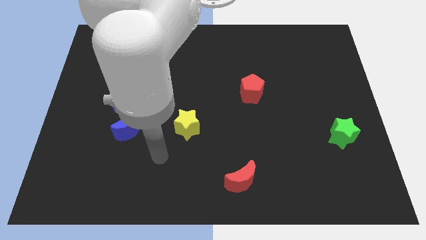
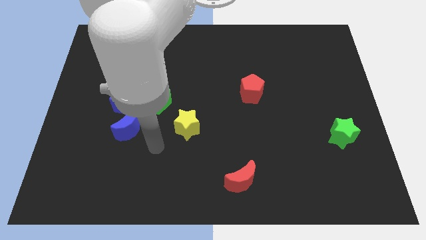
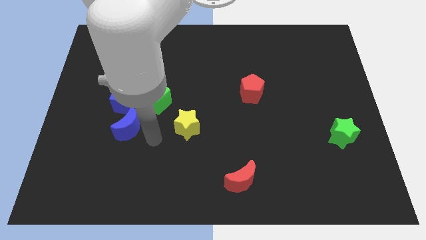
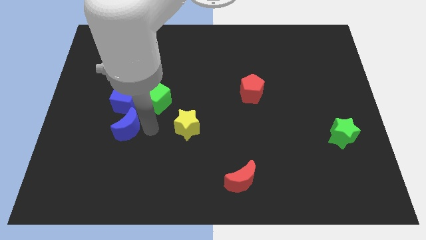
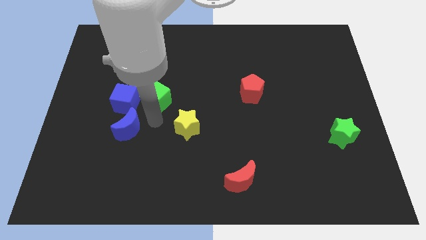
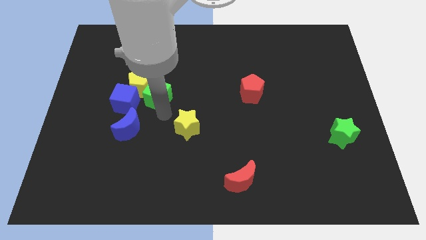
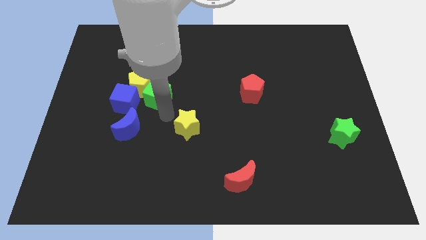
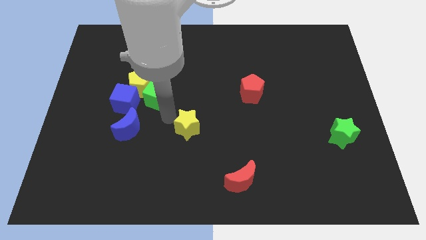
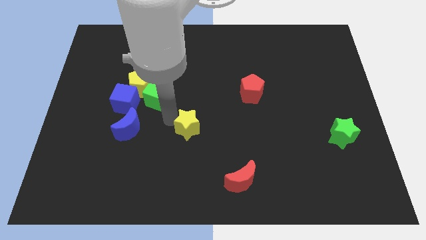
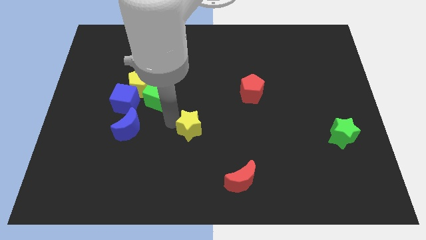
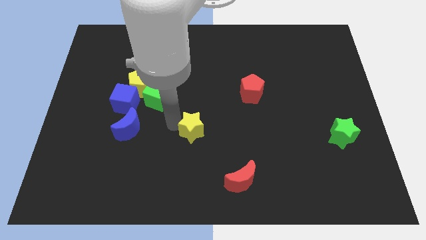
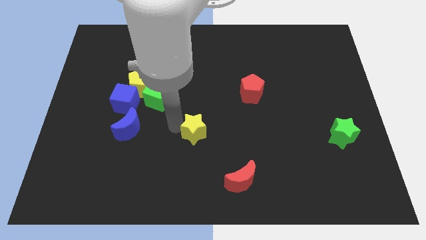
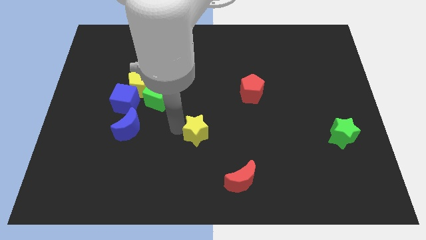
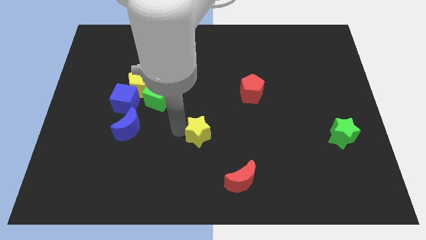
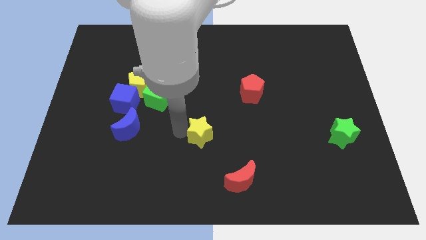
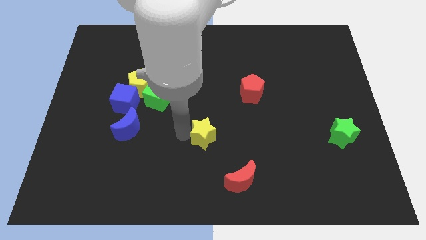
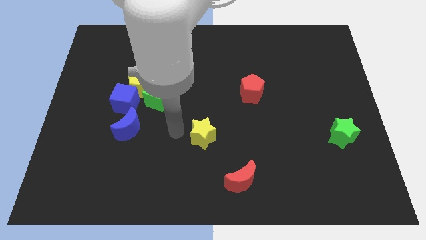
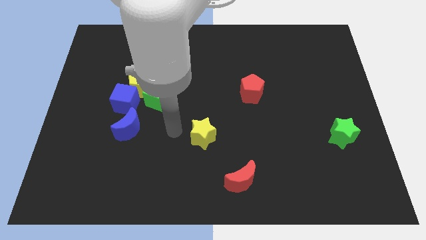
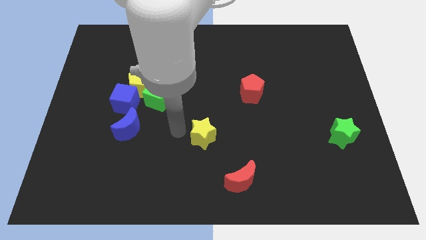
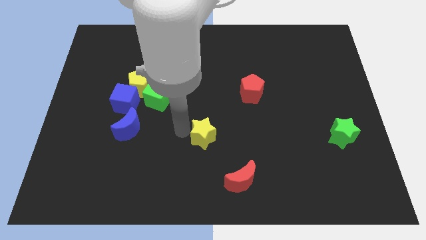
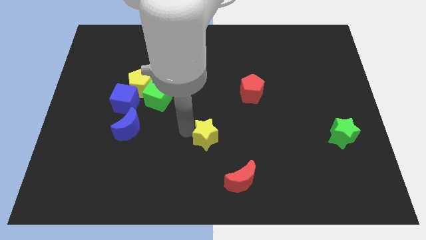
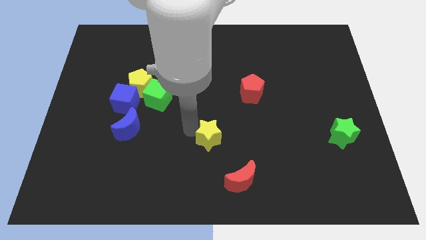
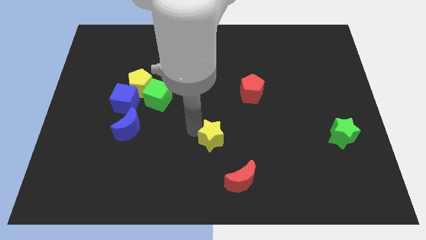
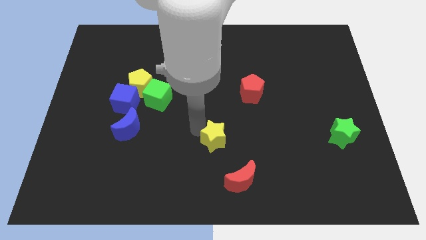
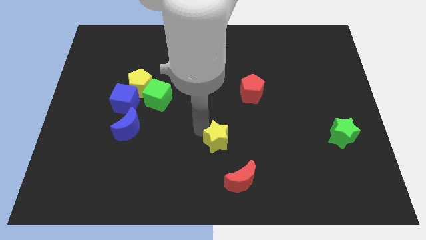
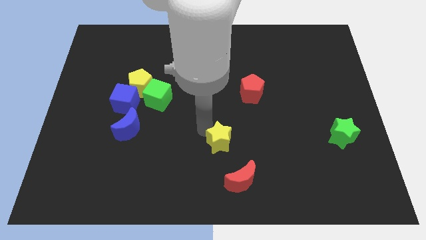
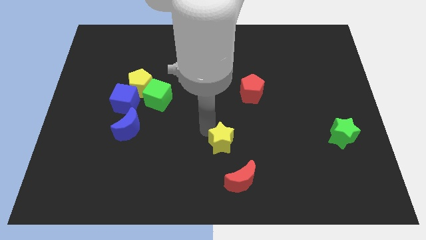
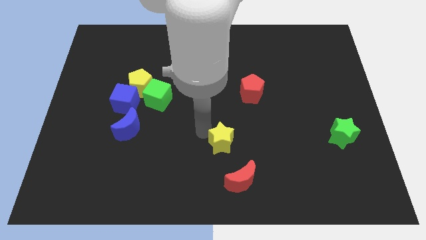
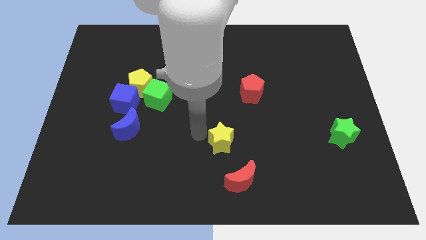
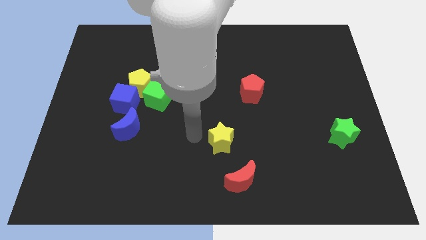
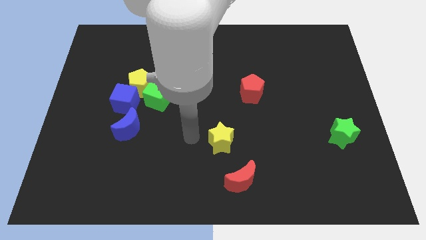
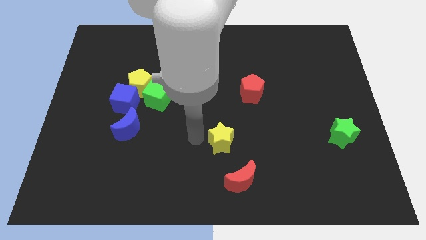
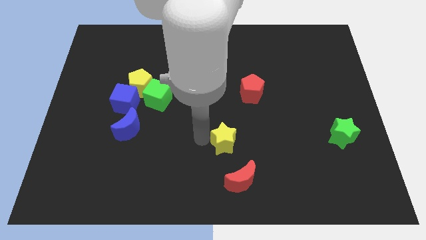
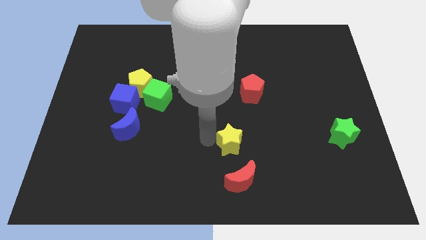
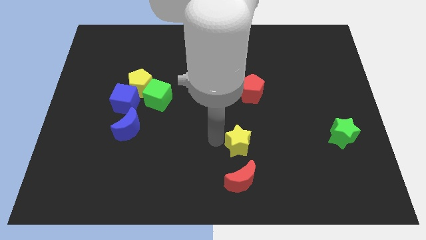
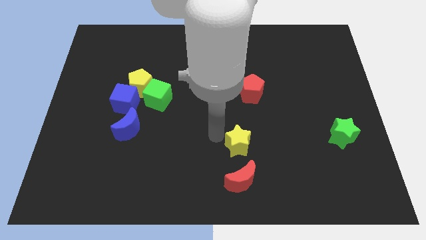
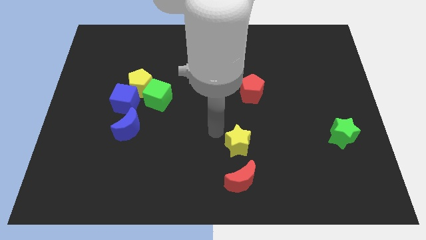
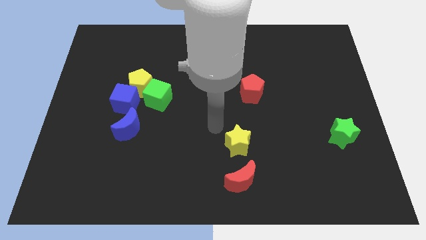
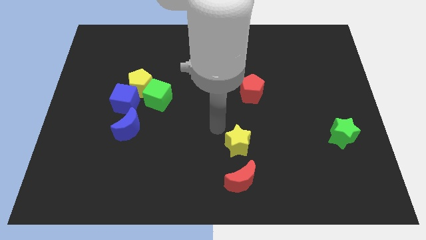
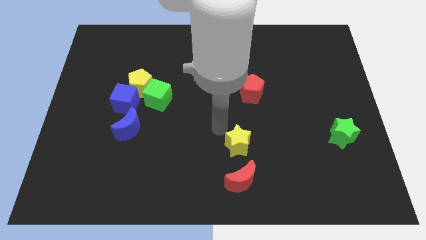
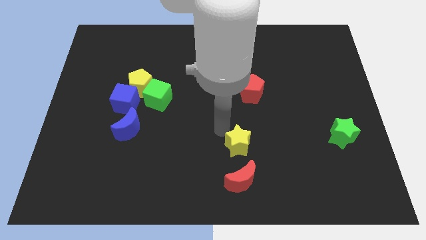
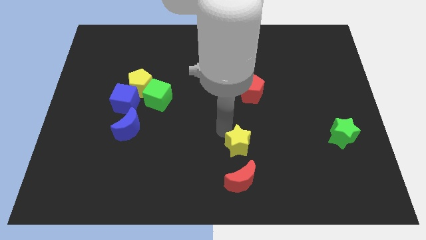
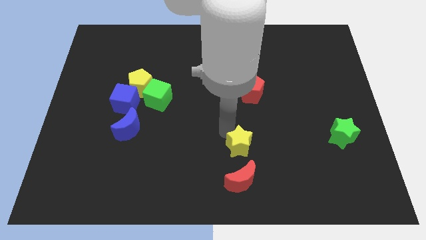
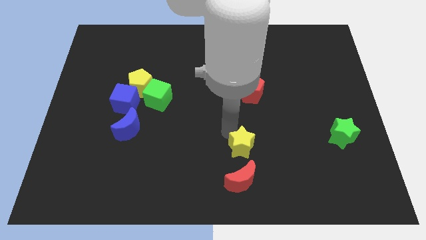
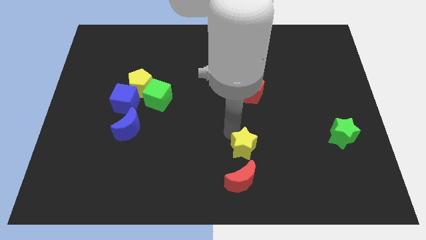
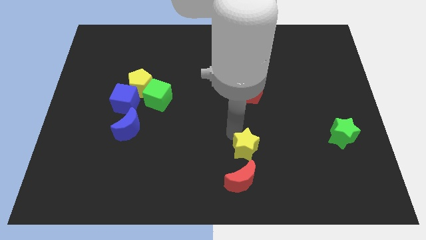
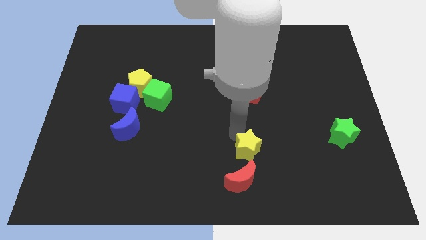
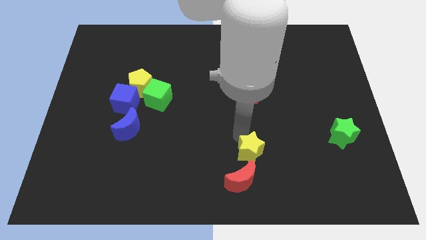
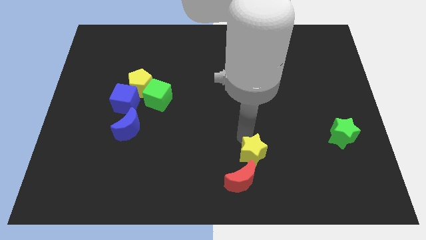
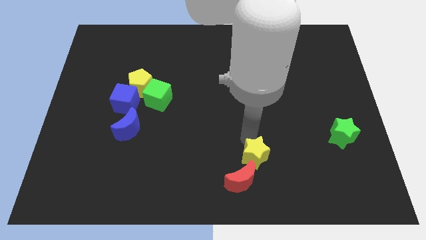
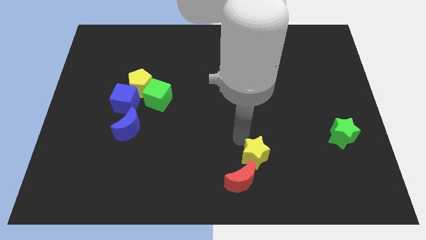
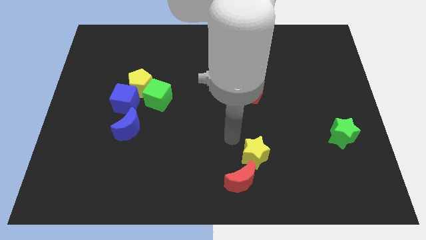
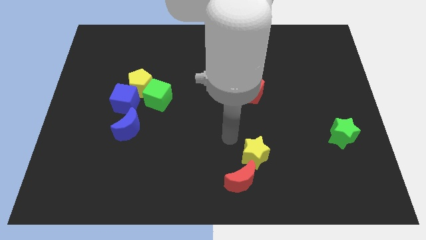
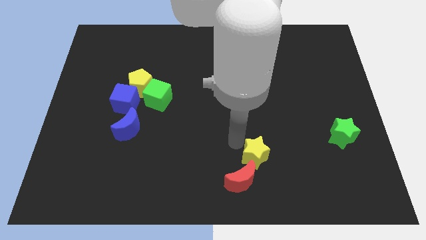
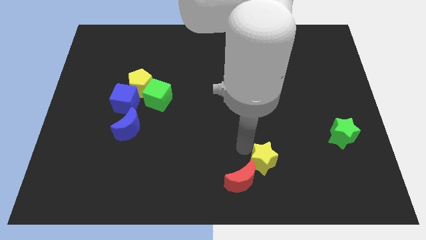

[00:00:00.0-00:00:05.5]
push the yellow star to the right of the red moon
